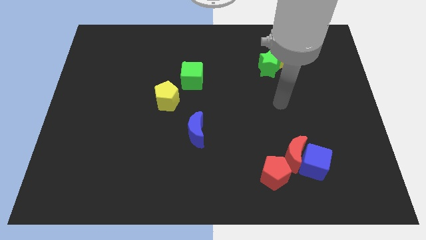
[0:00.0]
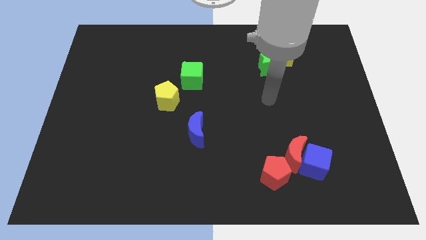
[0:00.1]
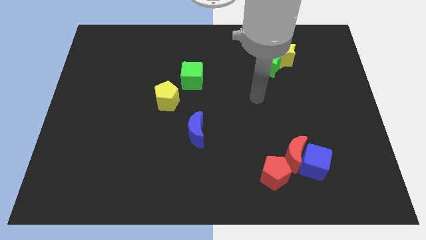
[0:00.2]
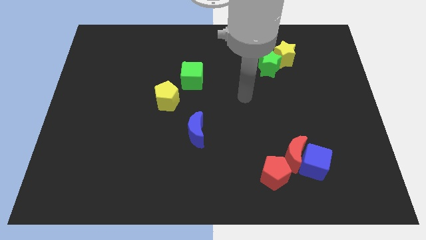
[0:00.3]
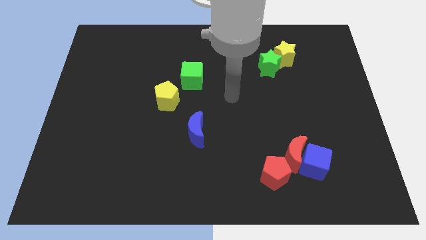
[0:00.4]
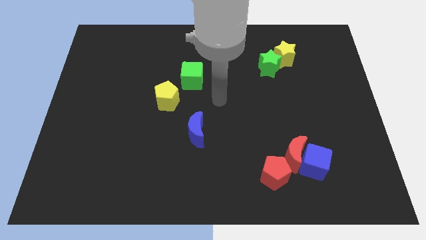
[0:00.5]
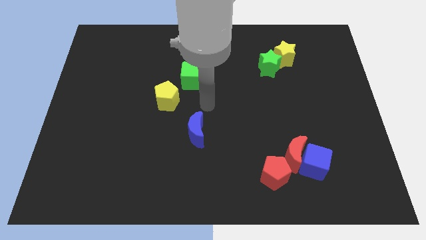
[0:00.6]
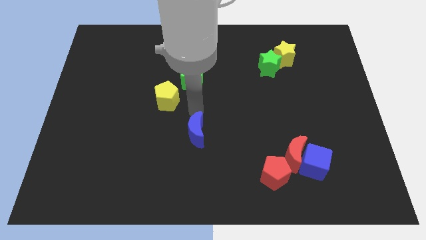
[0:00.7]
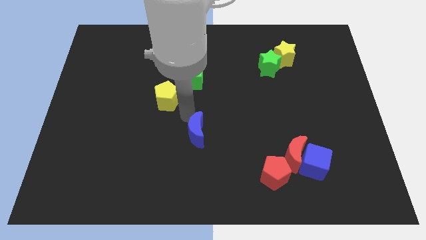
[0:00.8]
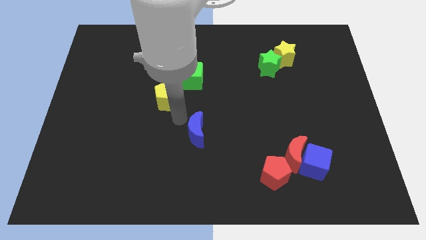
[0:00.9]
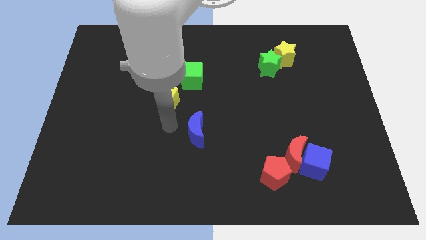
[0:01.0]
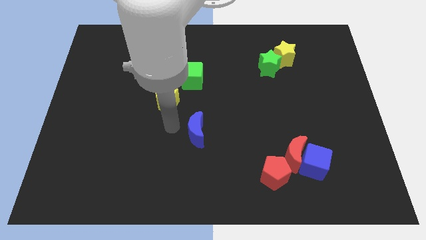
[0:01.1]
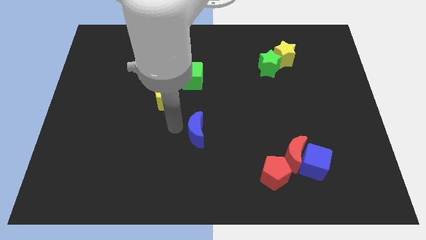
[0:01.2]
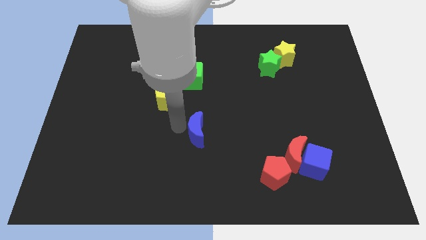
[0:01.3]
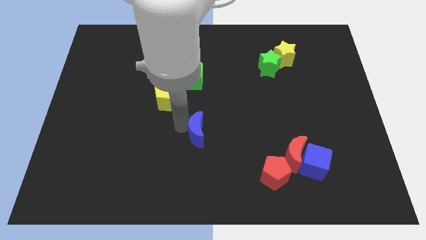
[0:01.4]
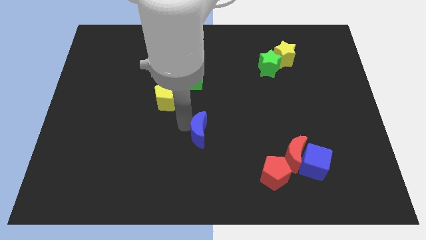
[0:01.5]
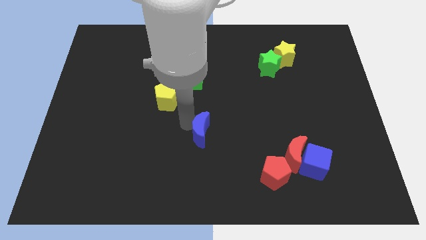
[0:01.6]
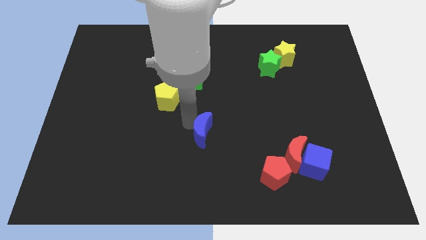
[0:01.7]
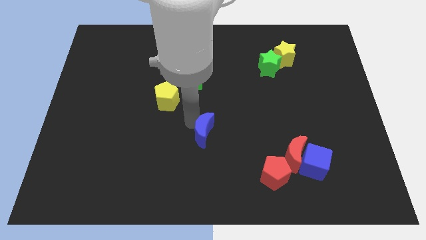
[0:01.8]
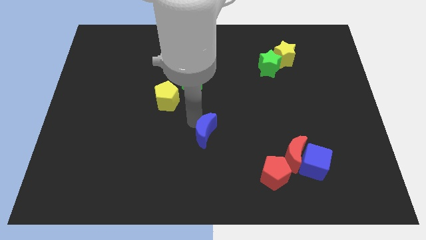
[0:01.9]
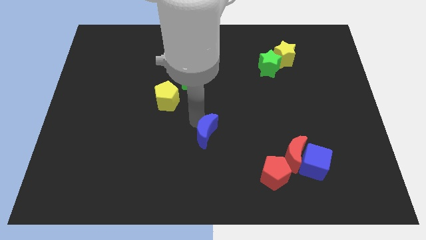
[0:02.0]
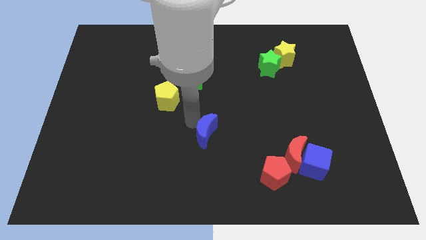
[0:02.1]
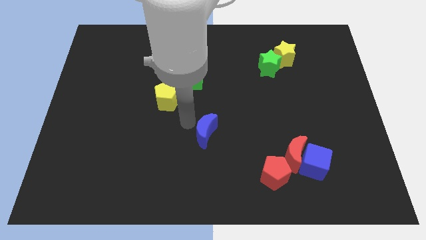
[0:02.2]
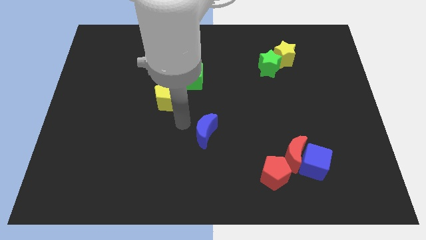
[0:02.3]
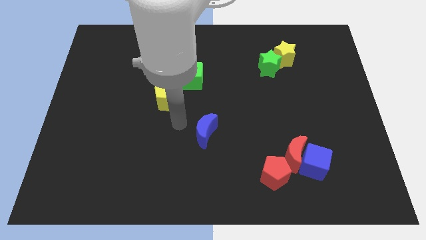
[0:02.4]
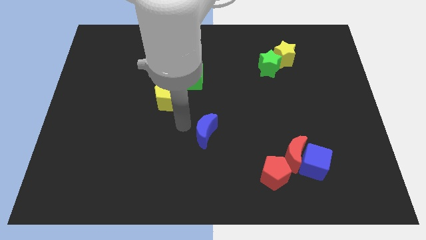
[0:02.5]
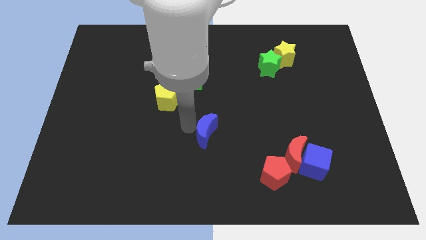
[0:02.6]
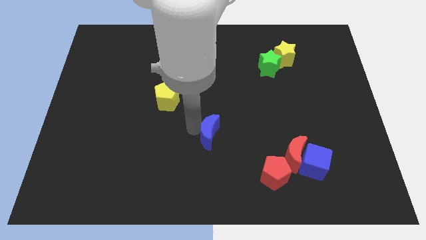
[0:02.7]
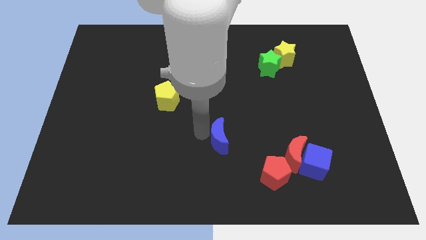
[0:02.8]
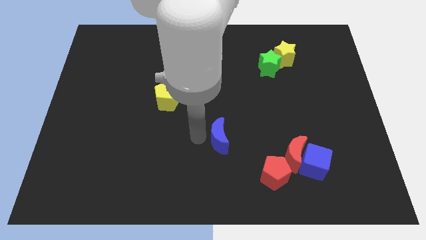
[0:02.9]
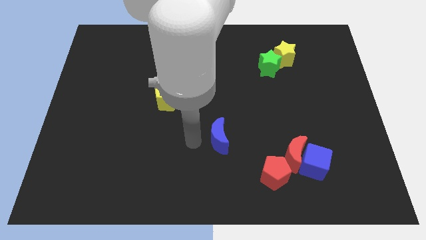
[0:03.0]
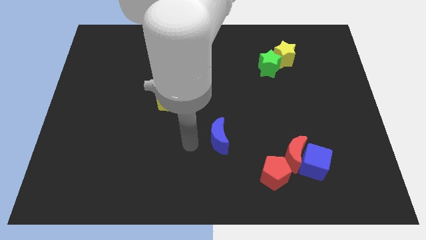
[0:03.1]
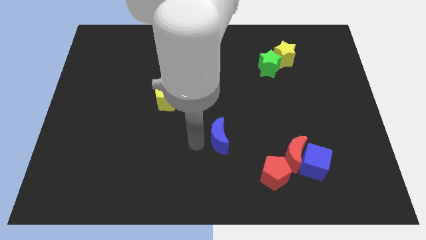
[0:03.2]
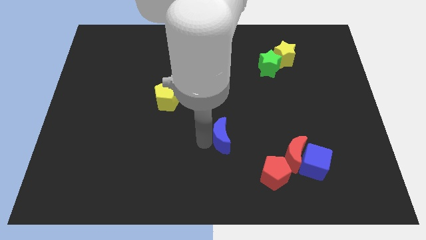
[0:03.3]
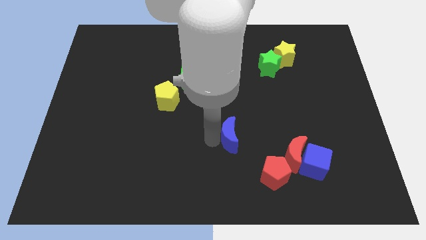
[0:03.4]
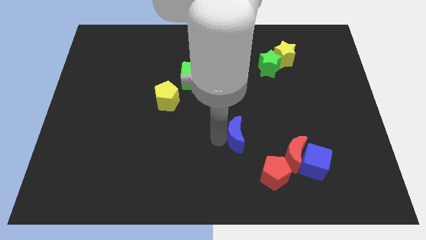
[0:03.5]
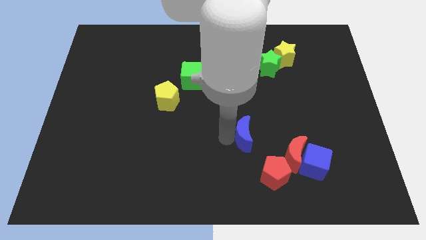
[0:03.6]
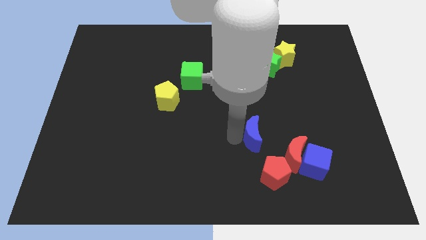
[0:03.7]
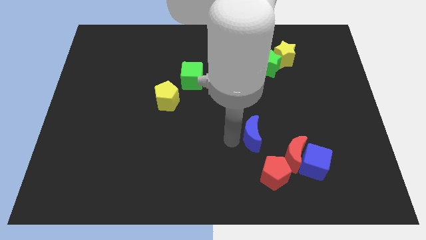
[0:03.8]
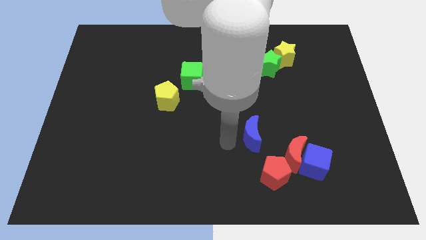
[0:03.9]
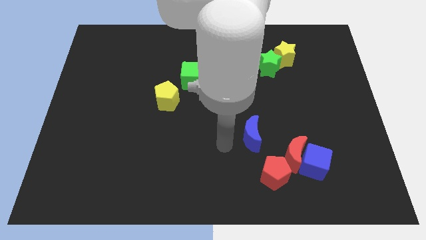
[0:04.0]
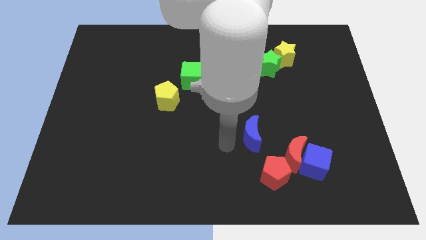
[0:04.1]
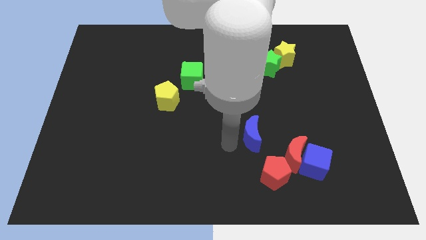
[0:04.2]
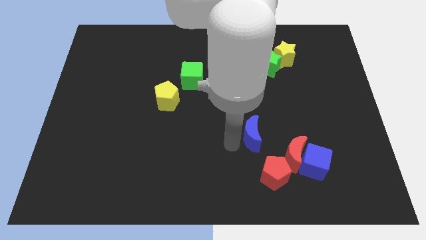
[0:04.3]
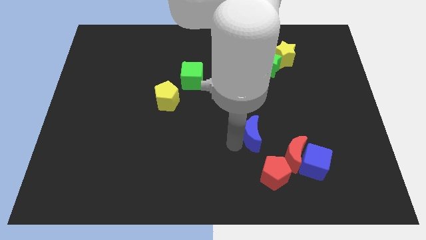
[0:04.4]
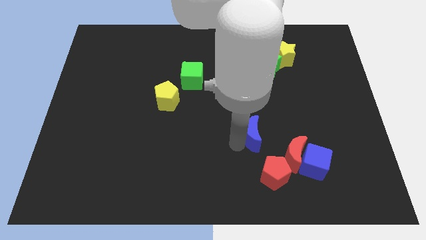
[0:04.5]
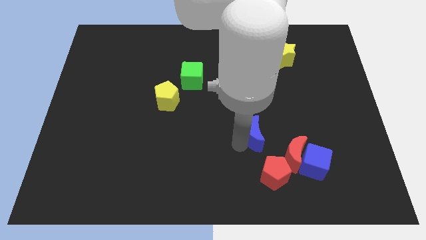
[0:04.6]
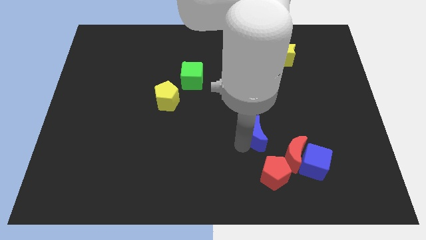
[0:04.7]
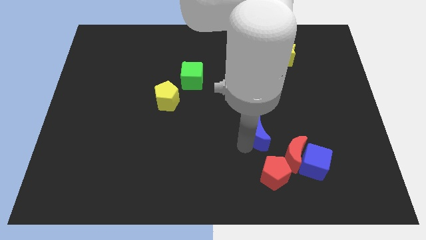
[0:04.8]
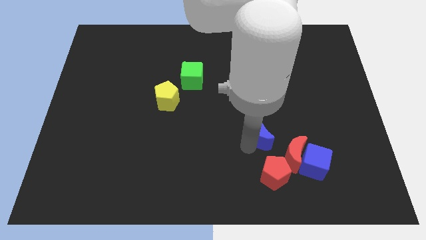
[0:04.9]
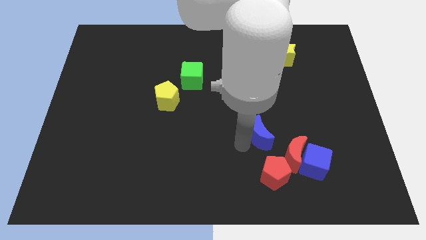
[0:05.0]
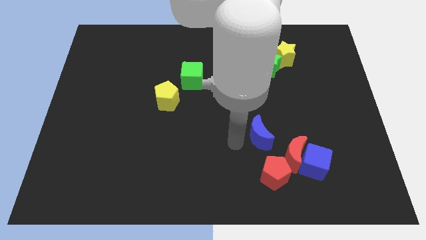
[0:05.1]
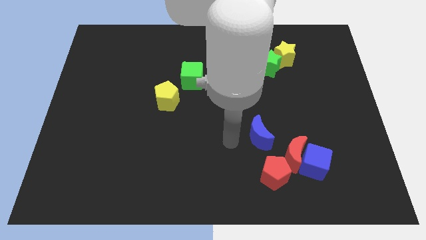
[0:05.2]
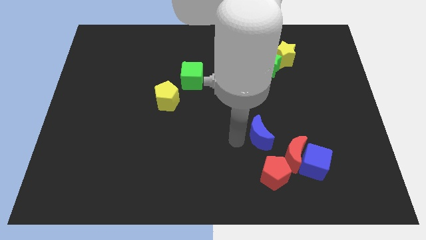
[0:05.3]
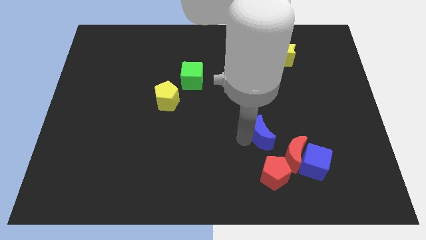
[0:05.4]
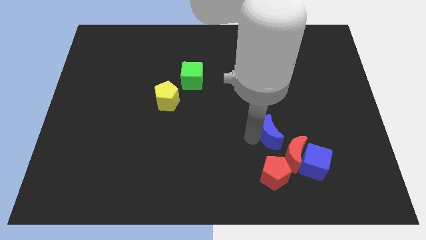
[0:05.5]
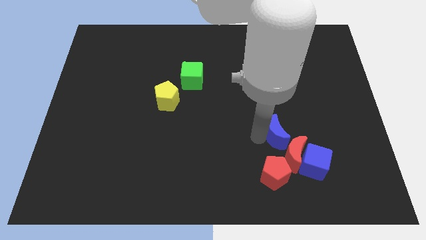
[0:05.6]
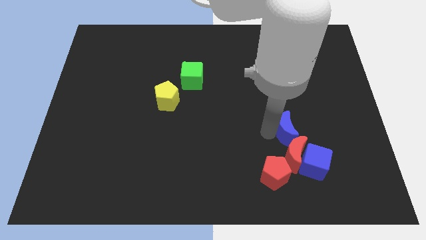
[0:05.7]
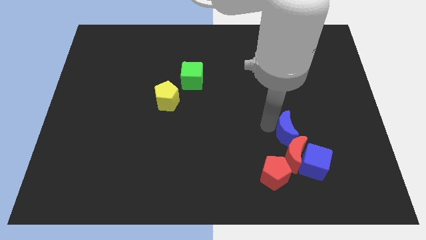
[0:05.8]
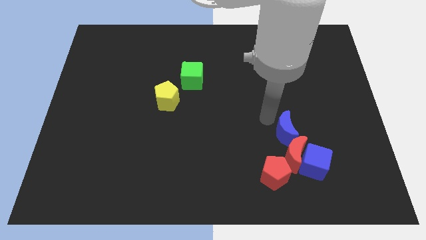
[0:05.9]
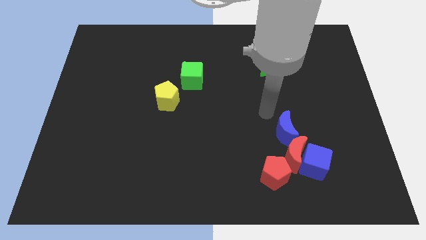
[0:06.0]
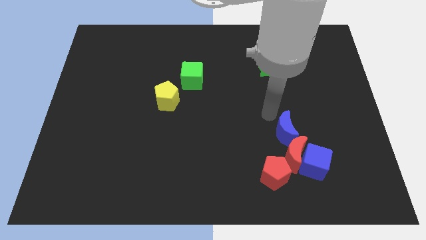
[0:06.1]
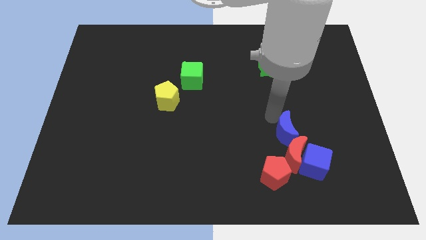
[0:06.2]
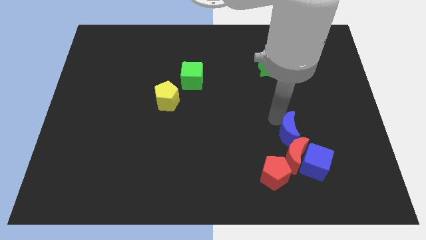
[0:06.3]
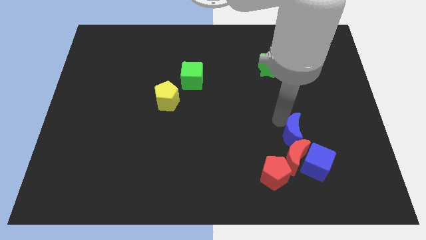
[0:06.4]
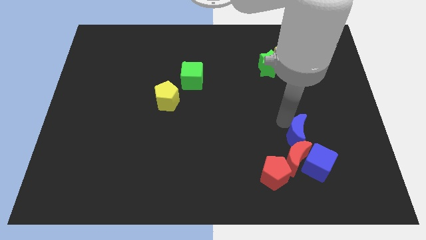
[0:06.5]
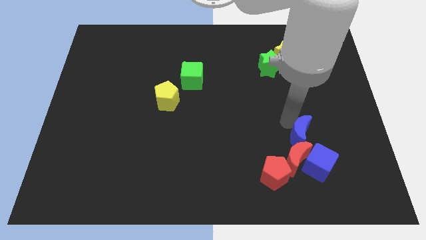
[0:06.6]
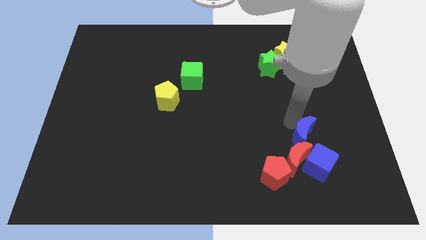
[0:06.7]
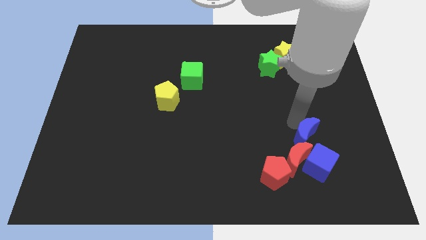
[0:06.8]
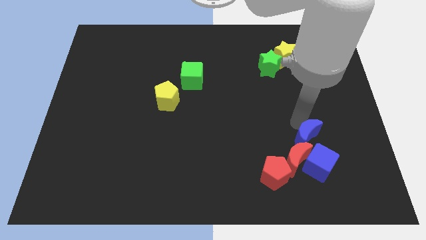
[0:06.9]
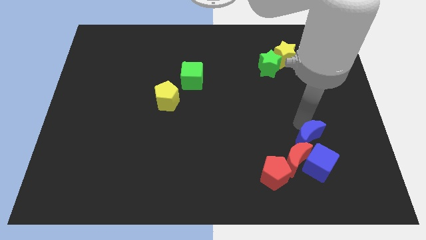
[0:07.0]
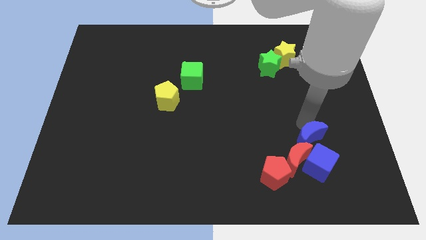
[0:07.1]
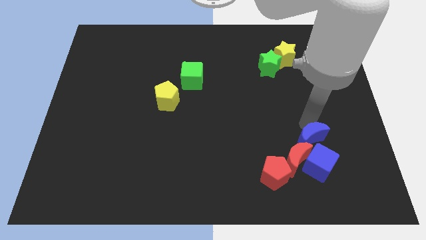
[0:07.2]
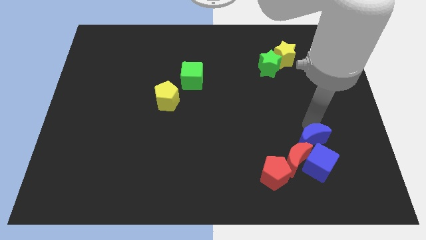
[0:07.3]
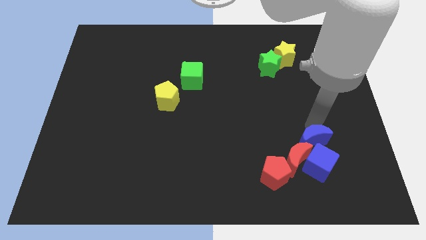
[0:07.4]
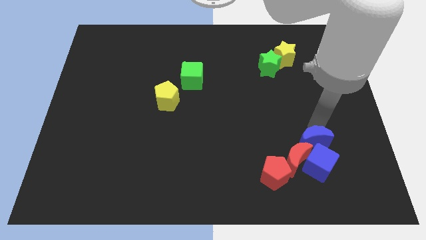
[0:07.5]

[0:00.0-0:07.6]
slide the blue moon close to the blue cube
